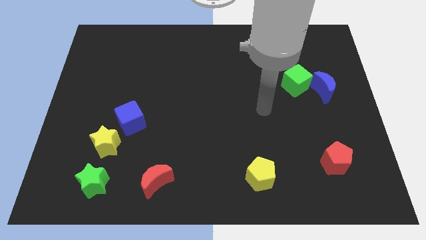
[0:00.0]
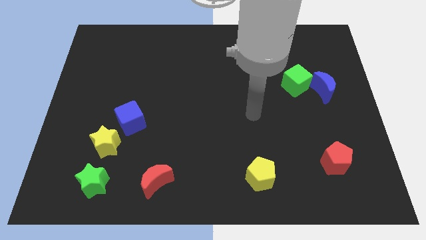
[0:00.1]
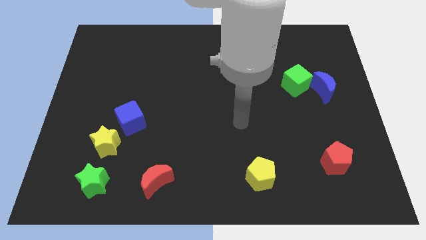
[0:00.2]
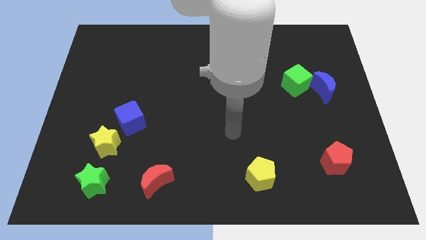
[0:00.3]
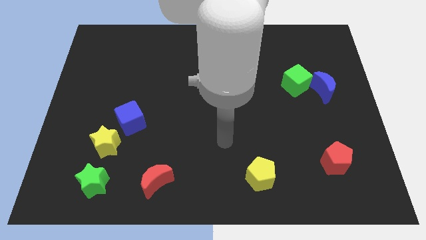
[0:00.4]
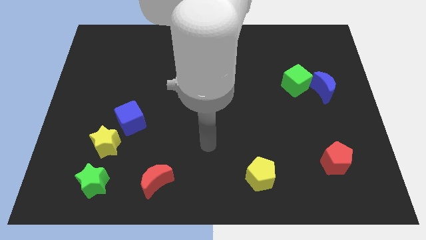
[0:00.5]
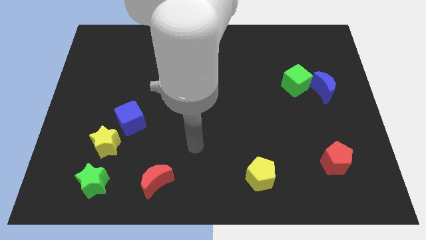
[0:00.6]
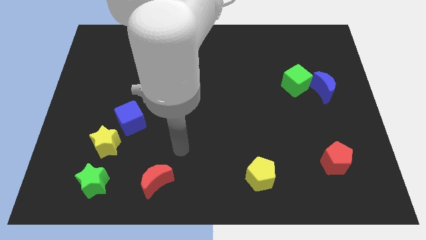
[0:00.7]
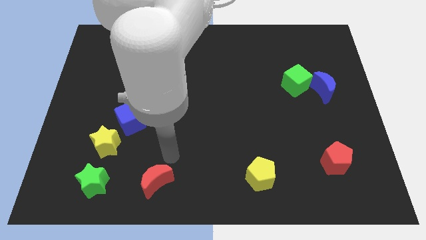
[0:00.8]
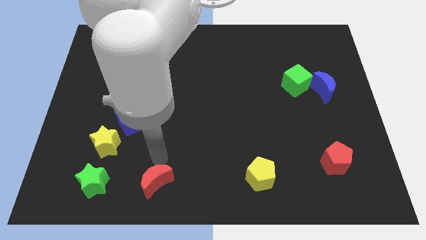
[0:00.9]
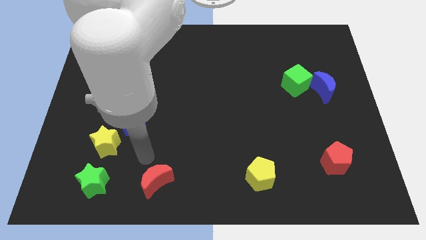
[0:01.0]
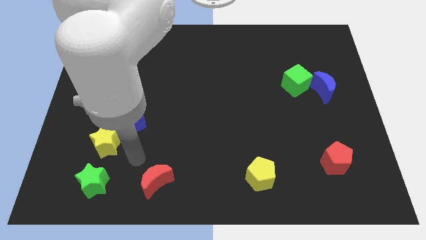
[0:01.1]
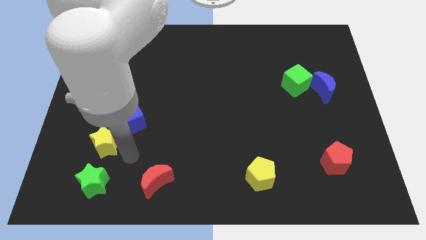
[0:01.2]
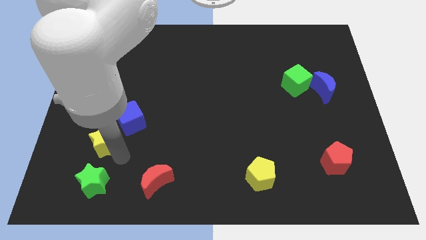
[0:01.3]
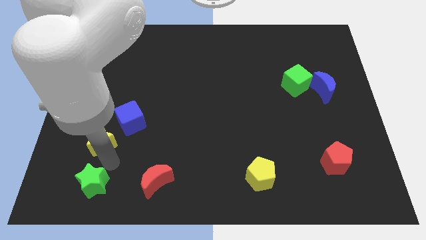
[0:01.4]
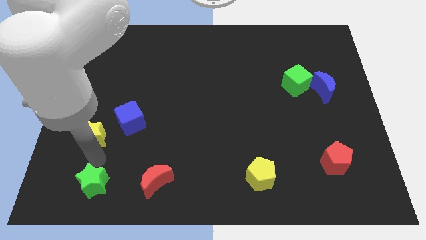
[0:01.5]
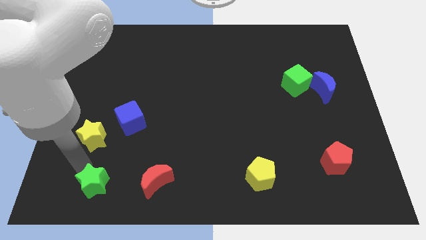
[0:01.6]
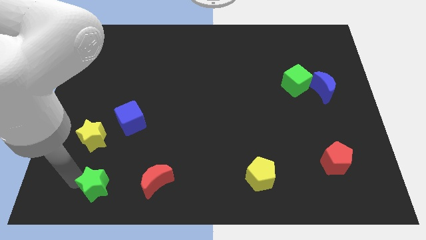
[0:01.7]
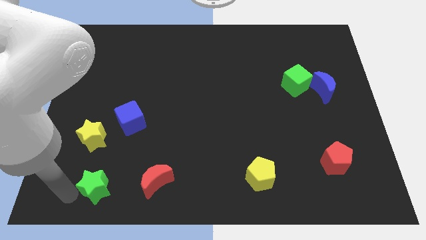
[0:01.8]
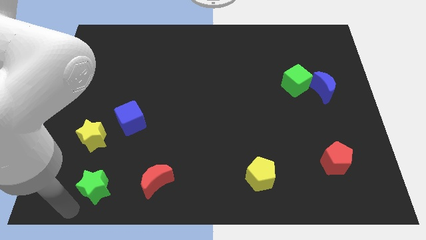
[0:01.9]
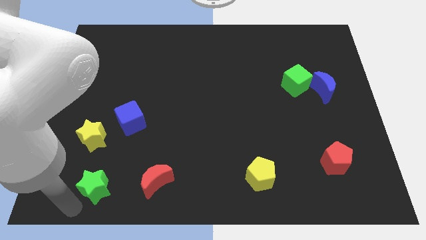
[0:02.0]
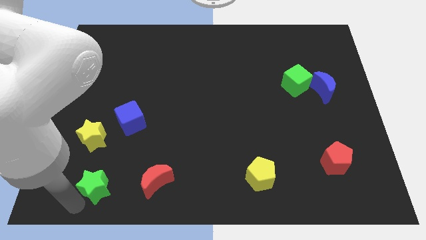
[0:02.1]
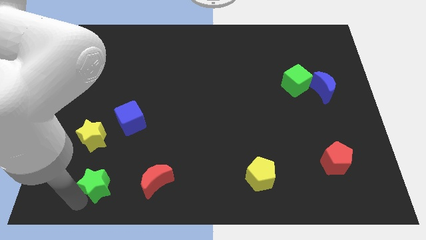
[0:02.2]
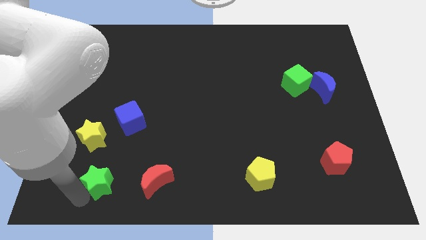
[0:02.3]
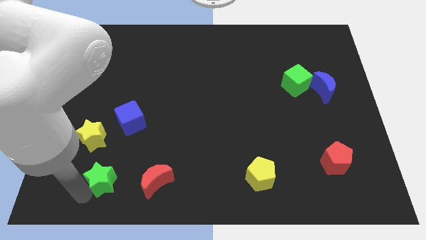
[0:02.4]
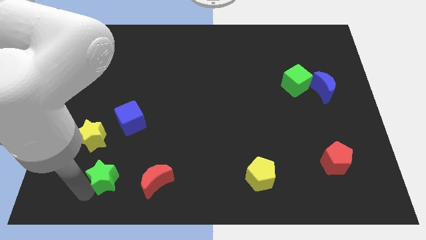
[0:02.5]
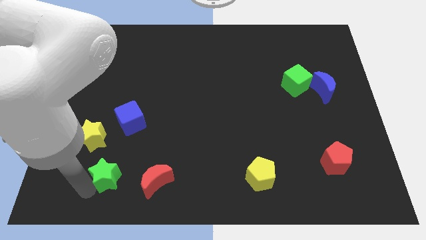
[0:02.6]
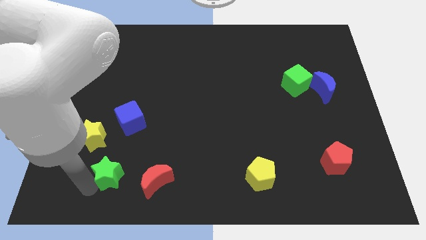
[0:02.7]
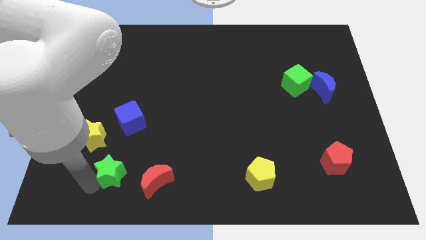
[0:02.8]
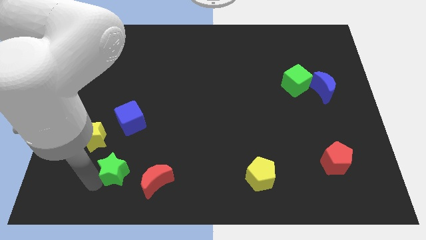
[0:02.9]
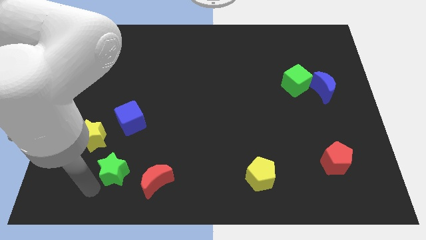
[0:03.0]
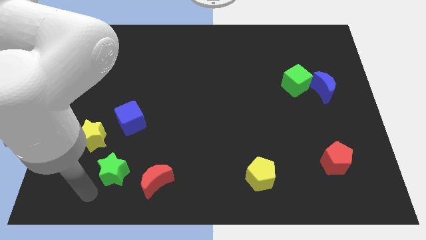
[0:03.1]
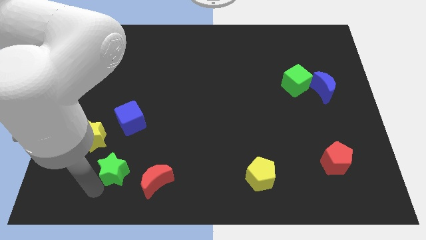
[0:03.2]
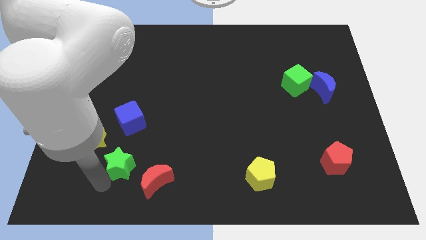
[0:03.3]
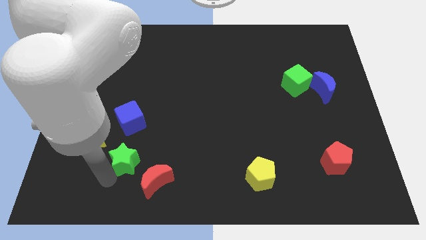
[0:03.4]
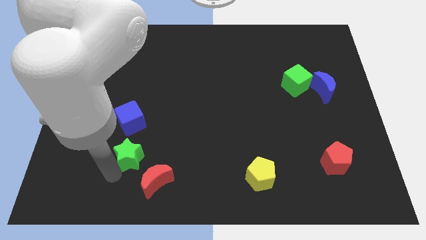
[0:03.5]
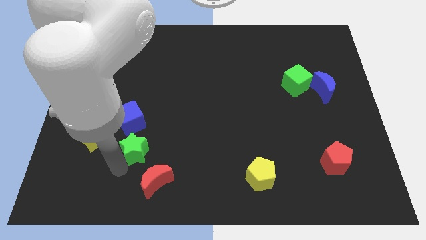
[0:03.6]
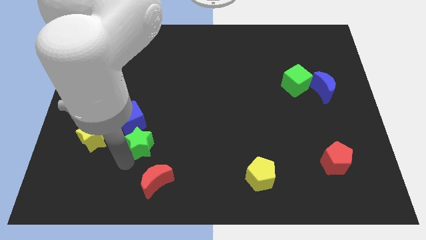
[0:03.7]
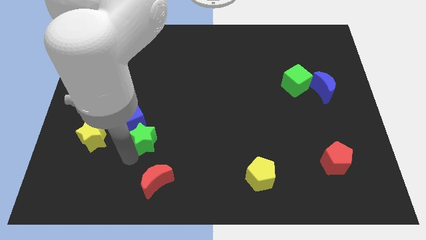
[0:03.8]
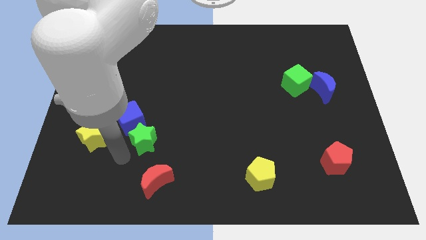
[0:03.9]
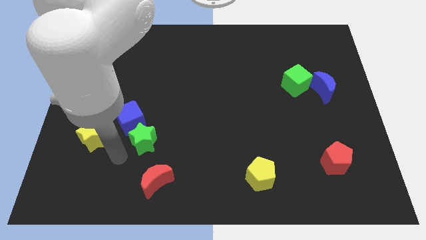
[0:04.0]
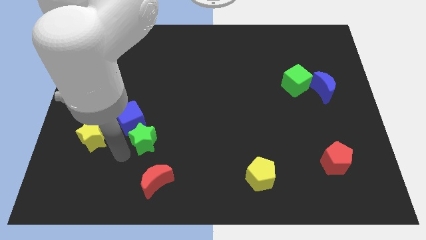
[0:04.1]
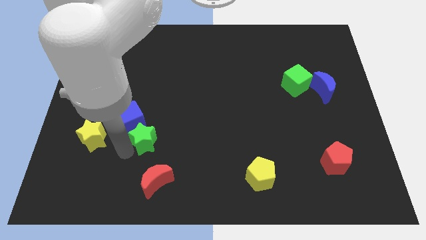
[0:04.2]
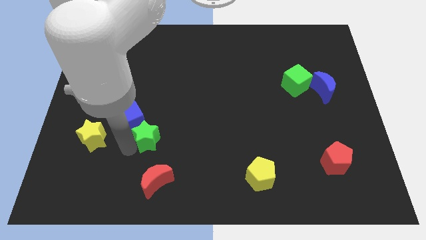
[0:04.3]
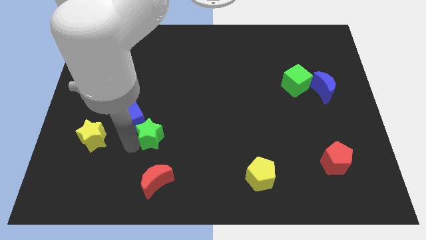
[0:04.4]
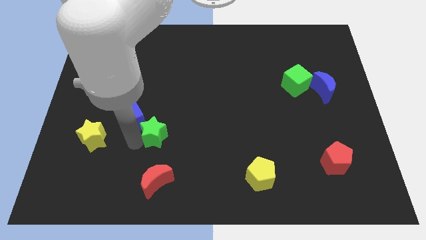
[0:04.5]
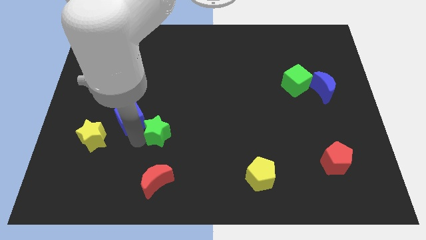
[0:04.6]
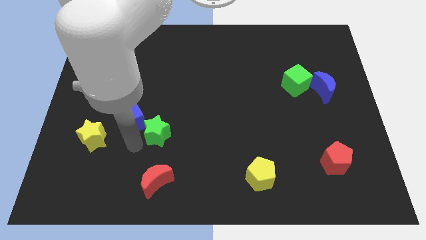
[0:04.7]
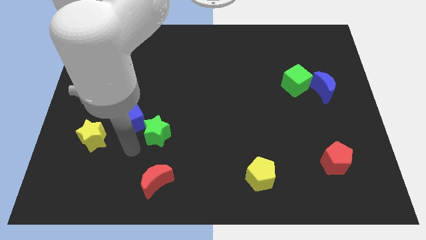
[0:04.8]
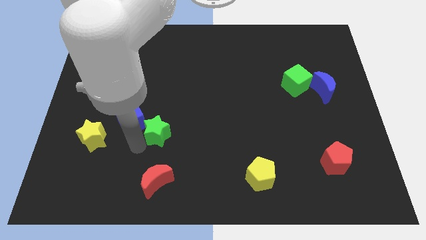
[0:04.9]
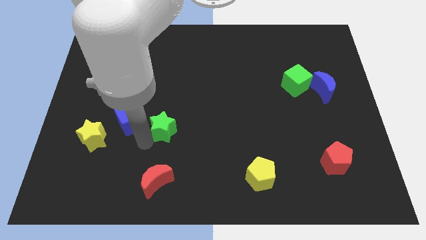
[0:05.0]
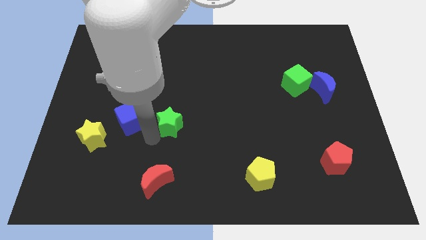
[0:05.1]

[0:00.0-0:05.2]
push the green star upwards and right diagonally

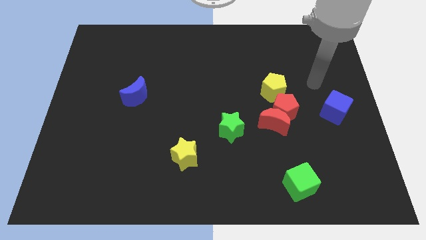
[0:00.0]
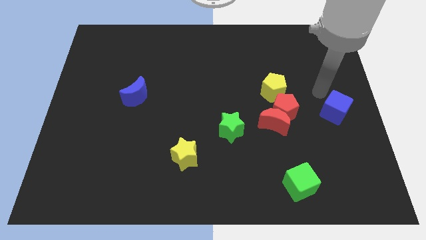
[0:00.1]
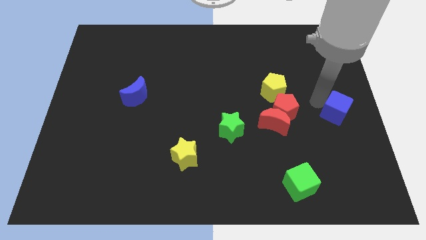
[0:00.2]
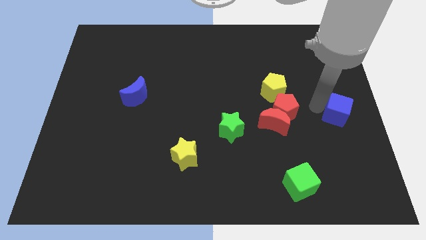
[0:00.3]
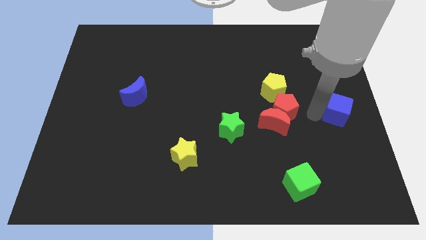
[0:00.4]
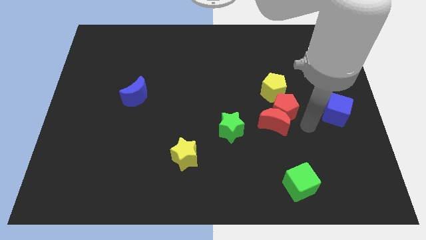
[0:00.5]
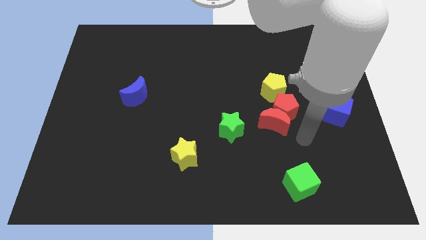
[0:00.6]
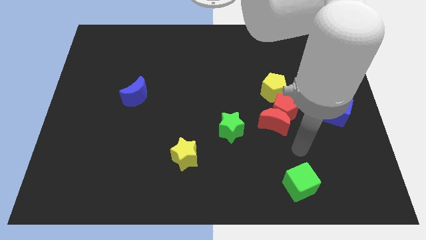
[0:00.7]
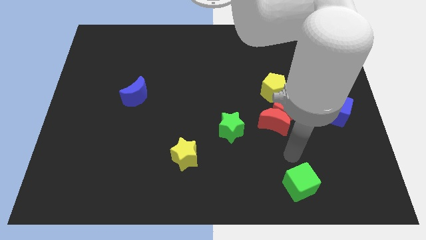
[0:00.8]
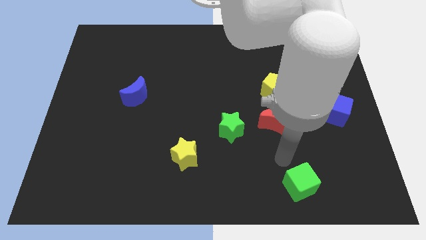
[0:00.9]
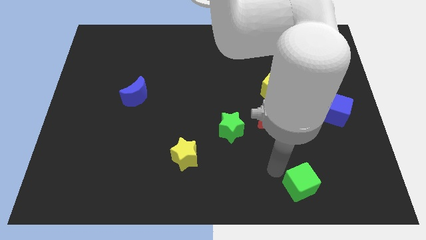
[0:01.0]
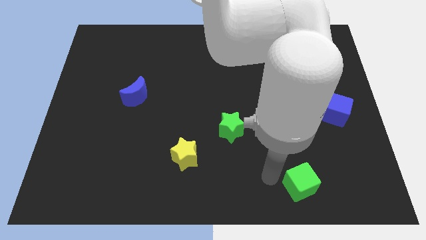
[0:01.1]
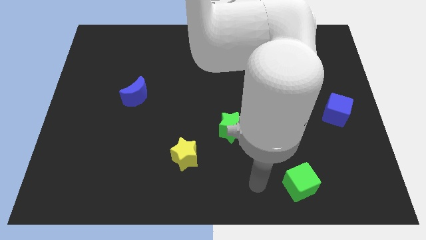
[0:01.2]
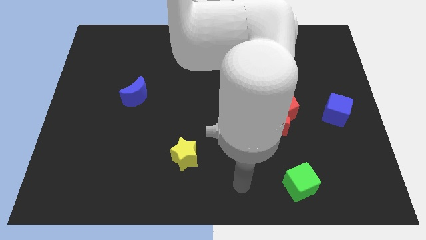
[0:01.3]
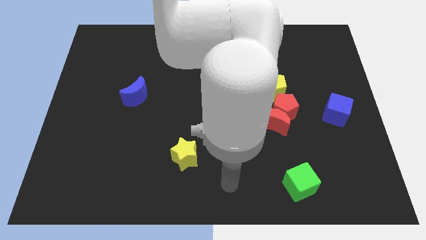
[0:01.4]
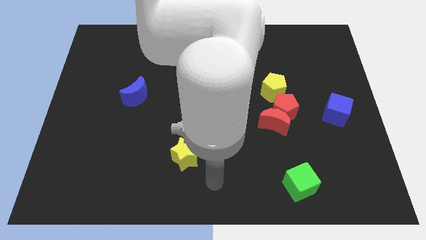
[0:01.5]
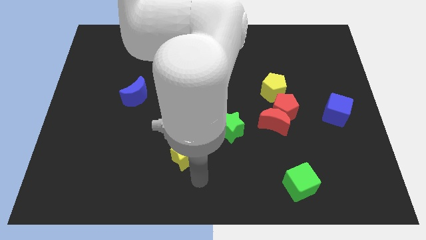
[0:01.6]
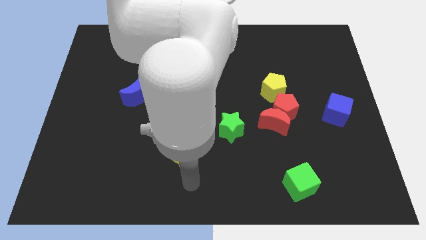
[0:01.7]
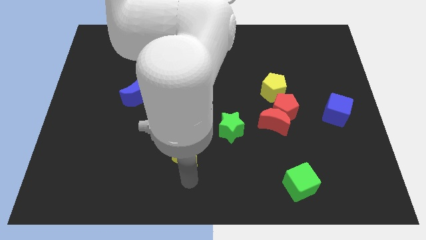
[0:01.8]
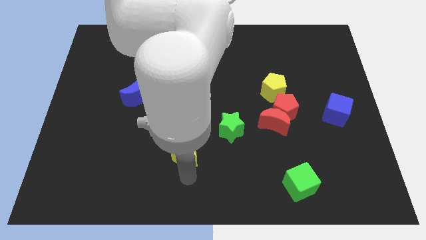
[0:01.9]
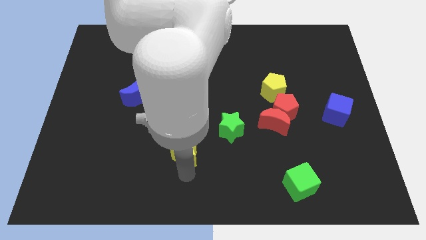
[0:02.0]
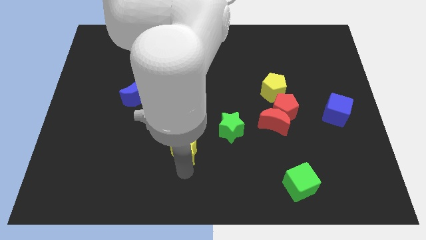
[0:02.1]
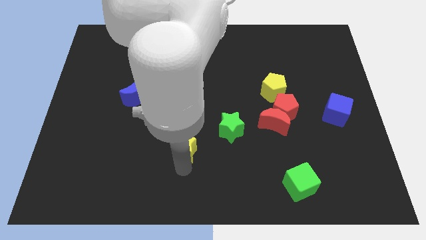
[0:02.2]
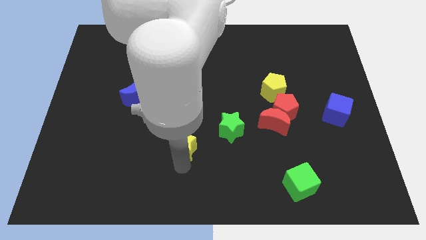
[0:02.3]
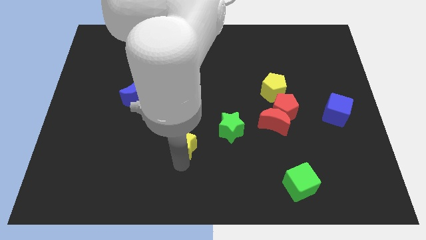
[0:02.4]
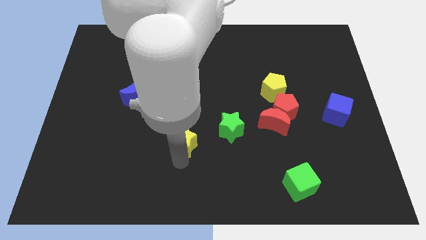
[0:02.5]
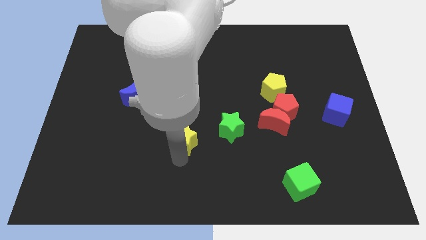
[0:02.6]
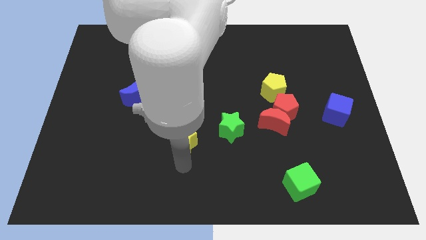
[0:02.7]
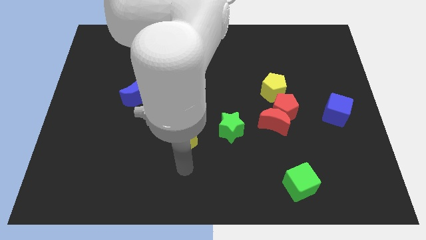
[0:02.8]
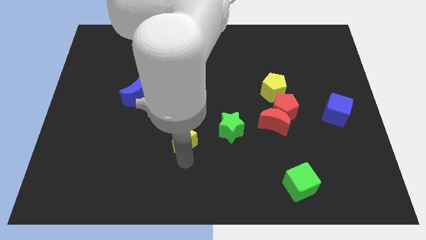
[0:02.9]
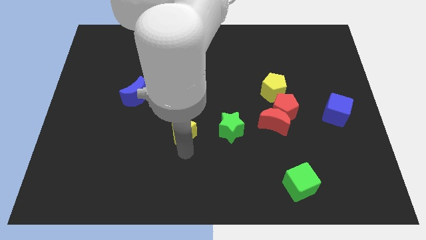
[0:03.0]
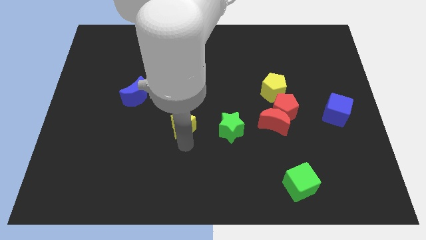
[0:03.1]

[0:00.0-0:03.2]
push the yellow star somewhat upwards
